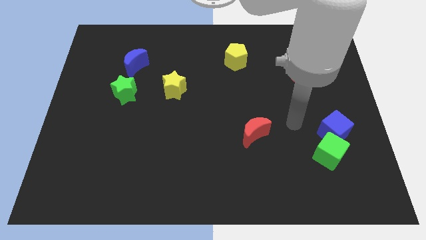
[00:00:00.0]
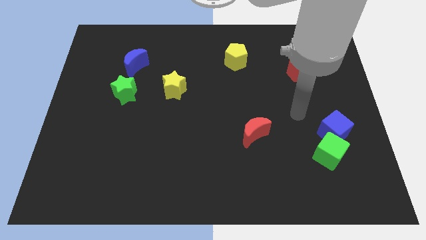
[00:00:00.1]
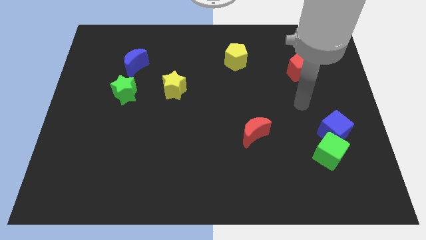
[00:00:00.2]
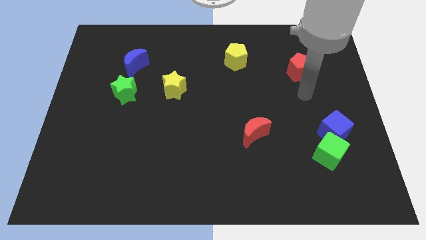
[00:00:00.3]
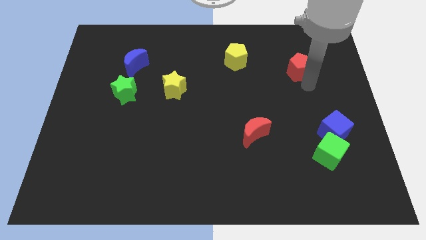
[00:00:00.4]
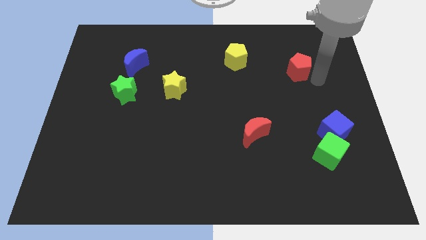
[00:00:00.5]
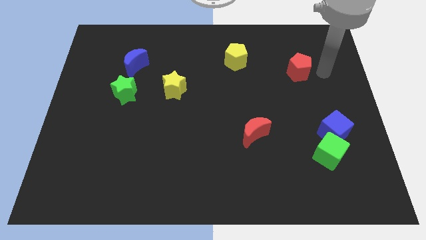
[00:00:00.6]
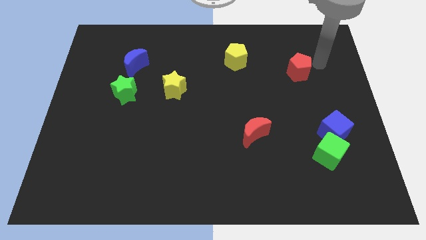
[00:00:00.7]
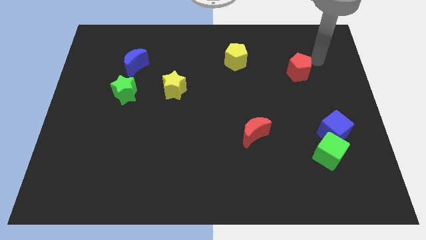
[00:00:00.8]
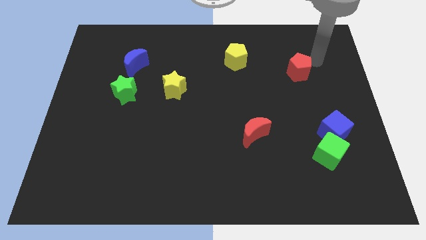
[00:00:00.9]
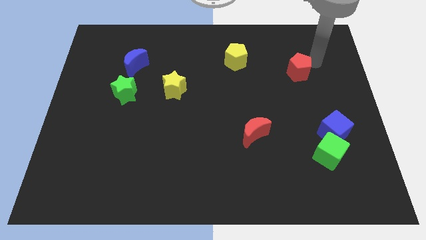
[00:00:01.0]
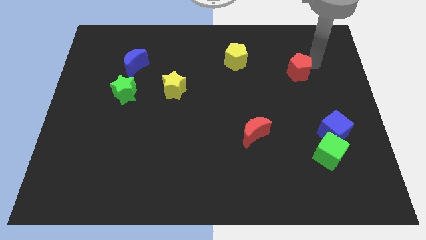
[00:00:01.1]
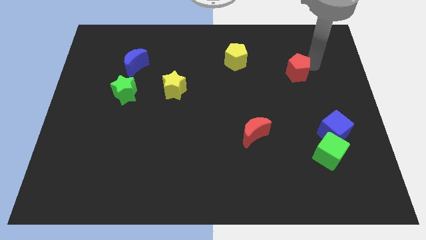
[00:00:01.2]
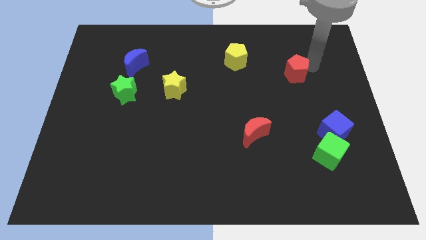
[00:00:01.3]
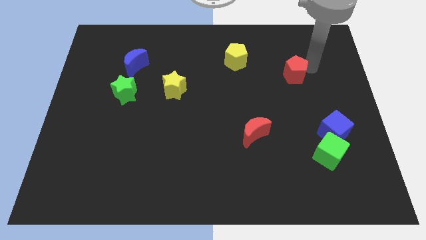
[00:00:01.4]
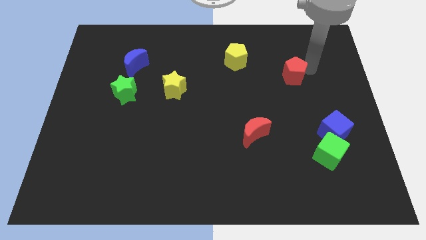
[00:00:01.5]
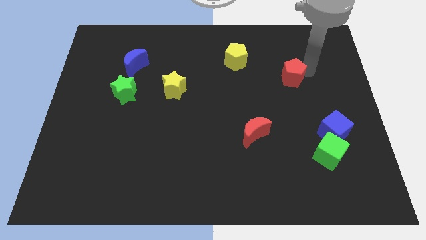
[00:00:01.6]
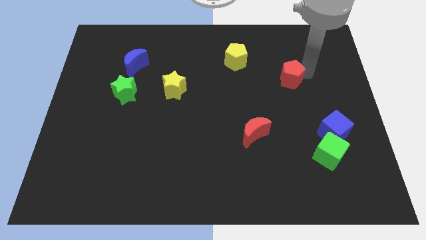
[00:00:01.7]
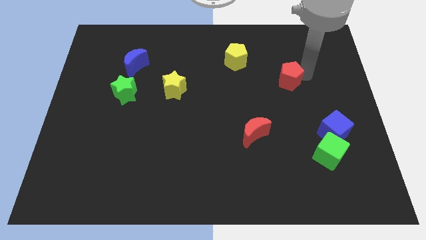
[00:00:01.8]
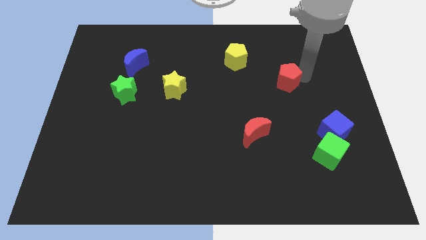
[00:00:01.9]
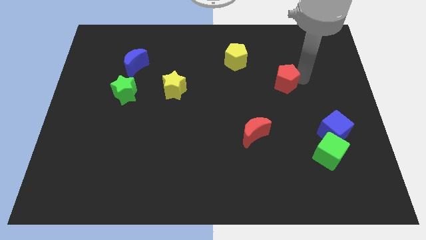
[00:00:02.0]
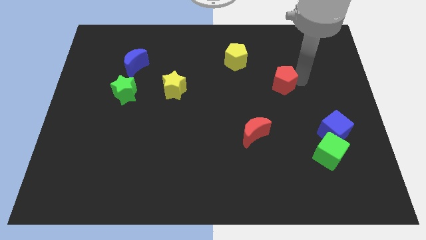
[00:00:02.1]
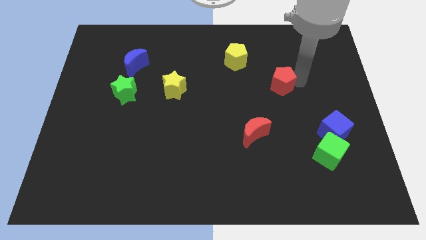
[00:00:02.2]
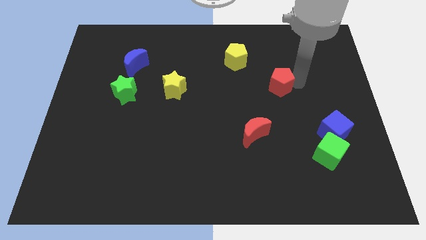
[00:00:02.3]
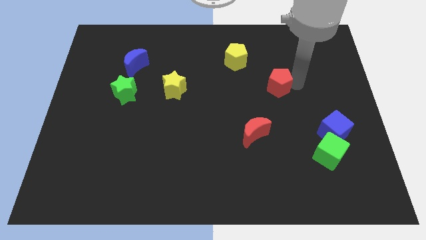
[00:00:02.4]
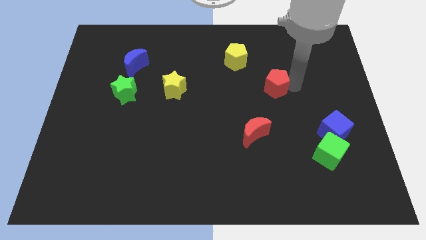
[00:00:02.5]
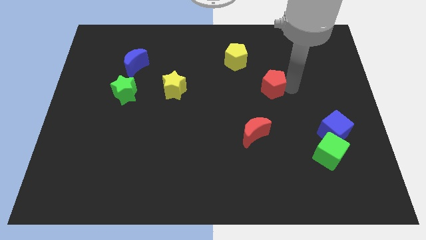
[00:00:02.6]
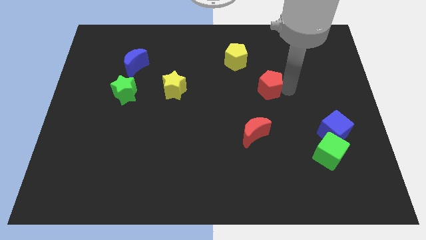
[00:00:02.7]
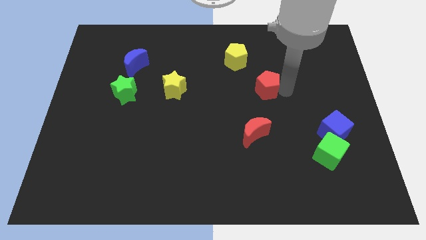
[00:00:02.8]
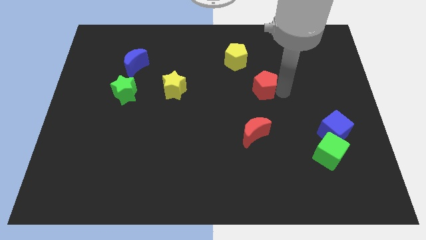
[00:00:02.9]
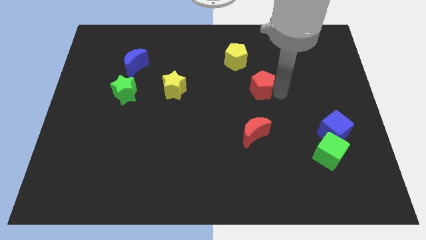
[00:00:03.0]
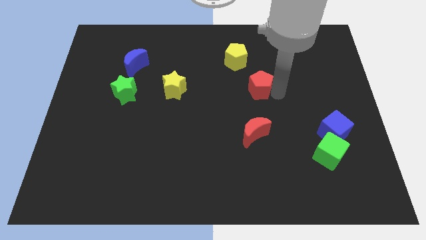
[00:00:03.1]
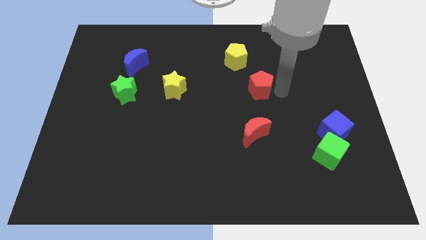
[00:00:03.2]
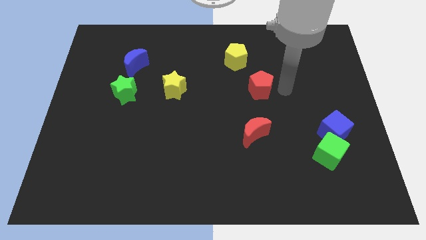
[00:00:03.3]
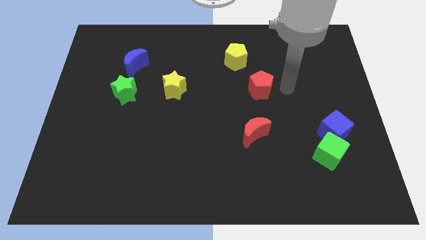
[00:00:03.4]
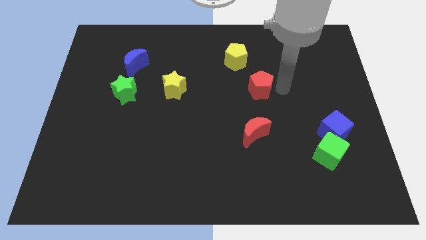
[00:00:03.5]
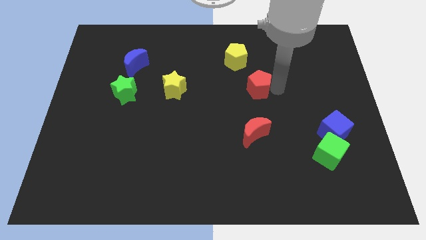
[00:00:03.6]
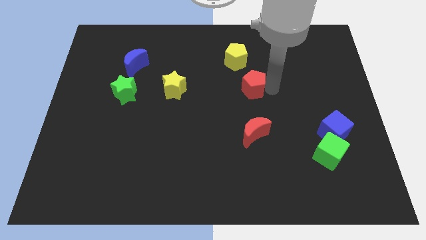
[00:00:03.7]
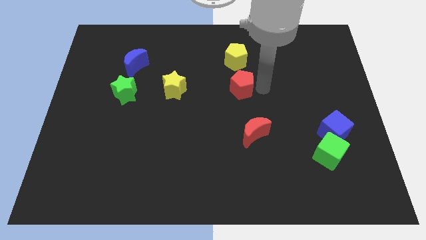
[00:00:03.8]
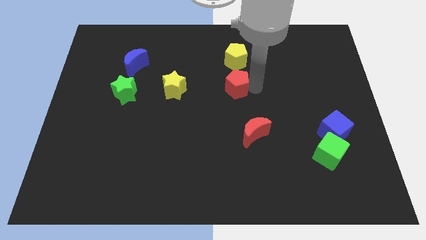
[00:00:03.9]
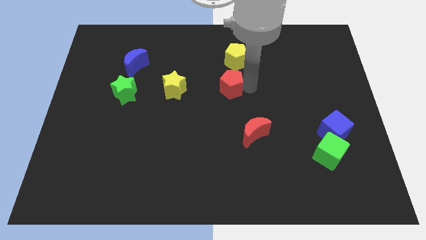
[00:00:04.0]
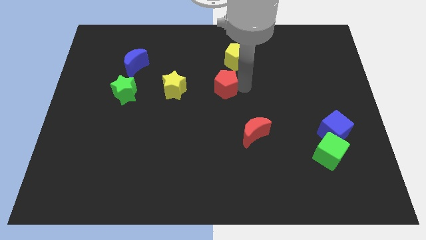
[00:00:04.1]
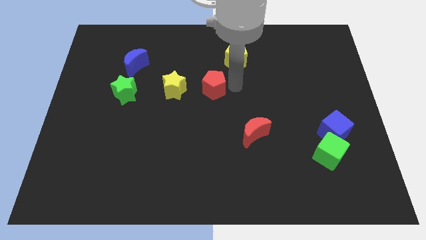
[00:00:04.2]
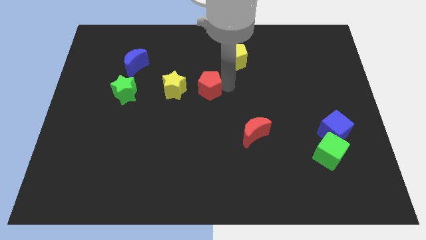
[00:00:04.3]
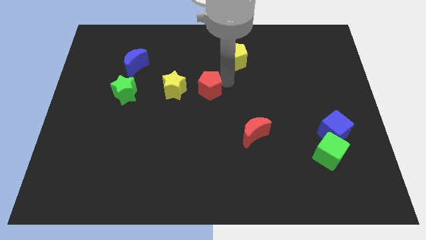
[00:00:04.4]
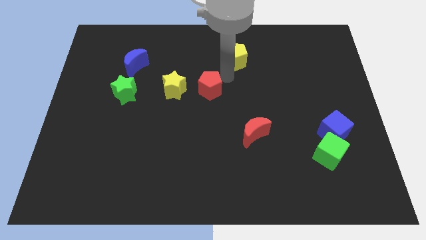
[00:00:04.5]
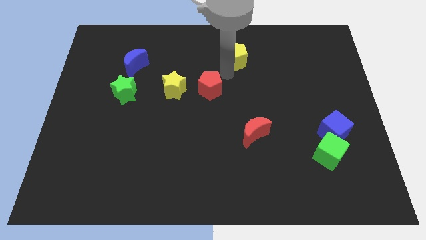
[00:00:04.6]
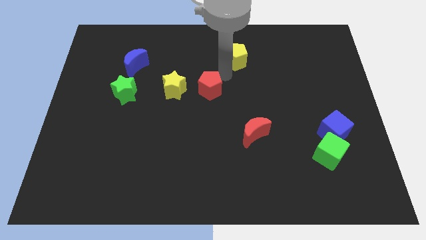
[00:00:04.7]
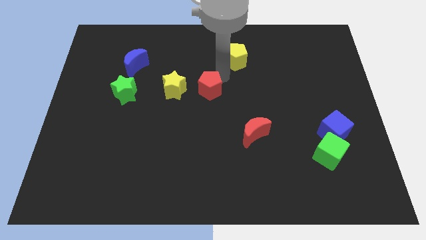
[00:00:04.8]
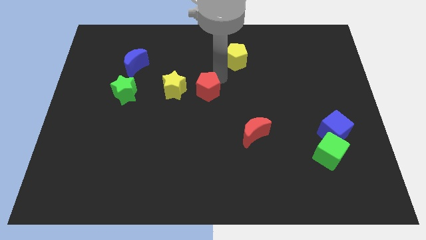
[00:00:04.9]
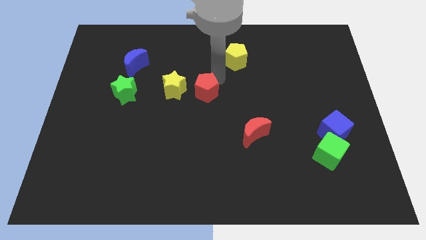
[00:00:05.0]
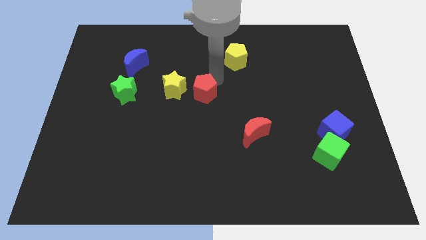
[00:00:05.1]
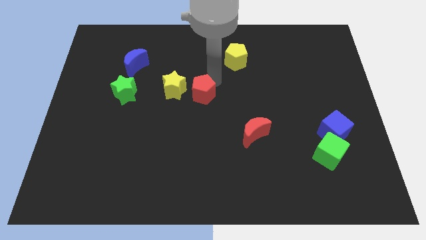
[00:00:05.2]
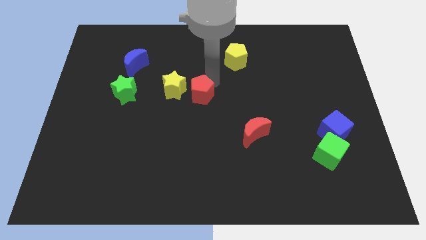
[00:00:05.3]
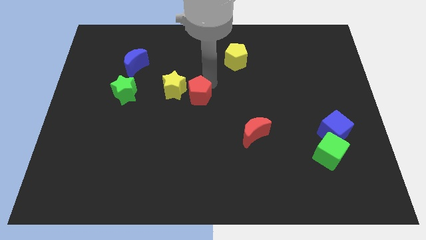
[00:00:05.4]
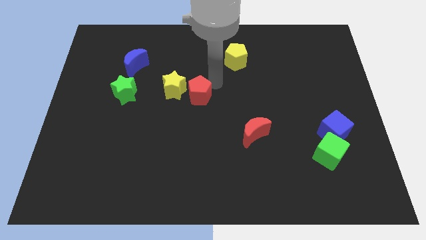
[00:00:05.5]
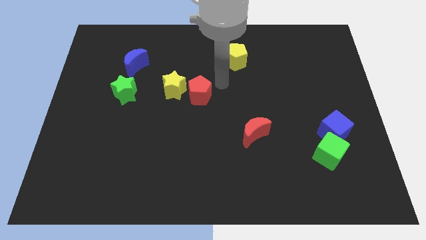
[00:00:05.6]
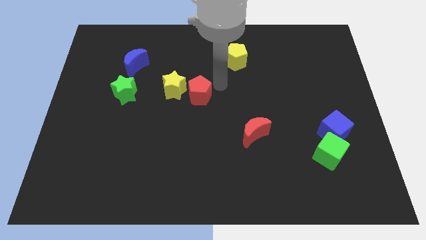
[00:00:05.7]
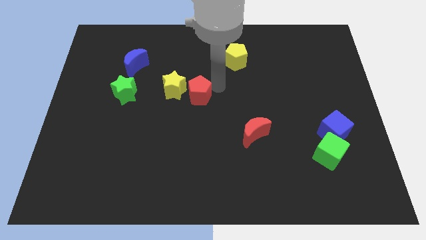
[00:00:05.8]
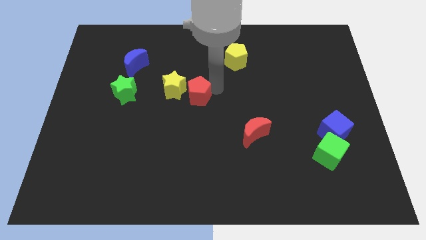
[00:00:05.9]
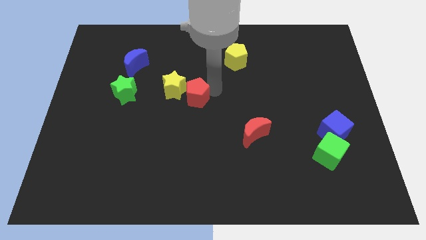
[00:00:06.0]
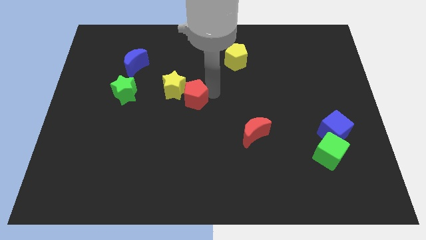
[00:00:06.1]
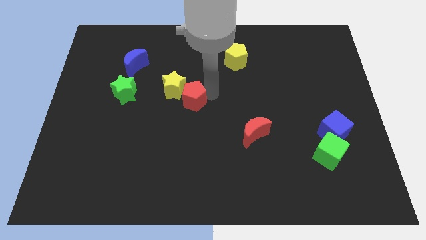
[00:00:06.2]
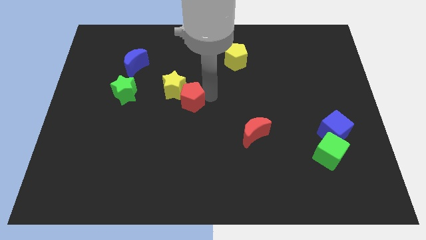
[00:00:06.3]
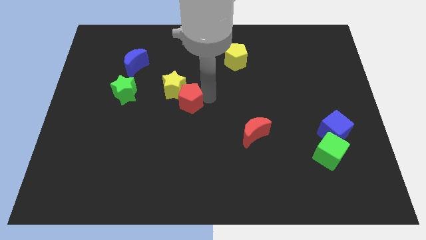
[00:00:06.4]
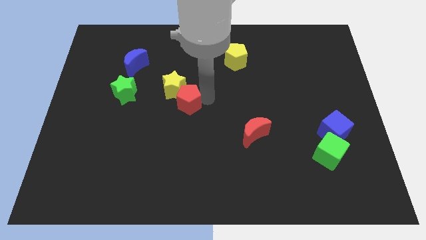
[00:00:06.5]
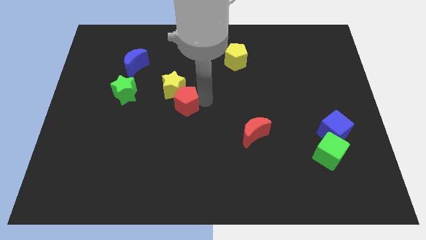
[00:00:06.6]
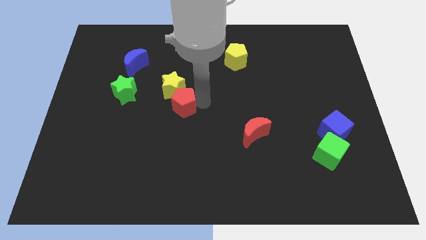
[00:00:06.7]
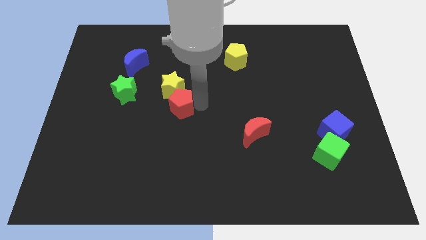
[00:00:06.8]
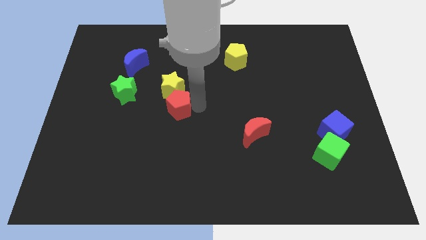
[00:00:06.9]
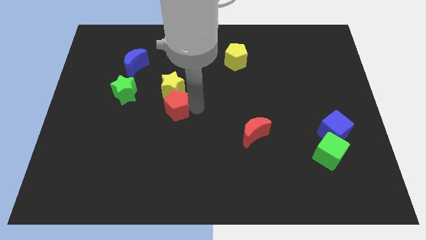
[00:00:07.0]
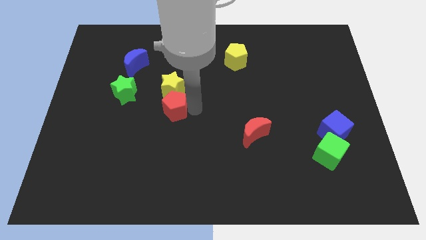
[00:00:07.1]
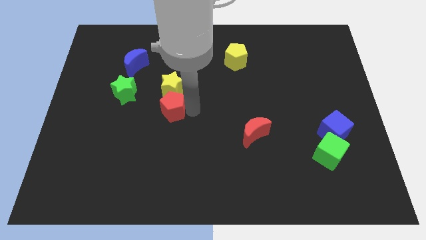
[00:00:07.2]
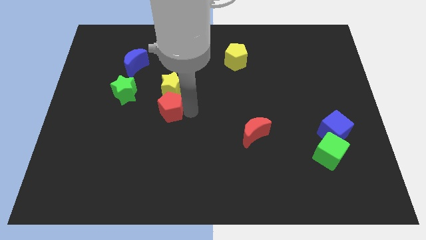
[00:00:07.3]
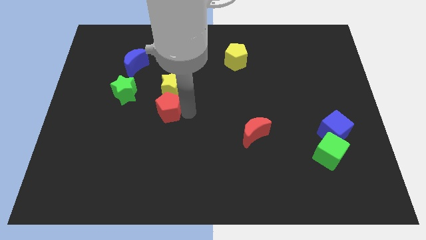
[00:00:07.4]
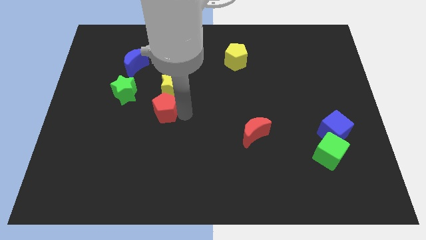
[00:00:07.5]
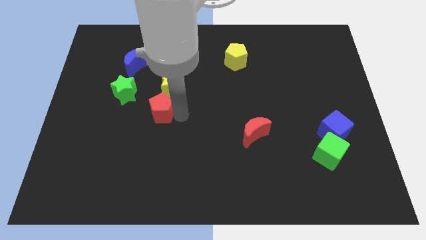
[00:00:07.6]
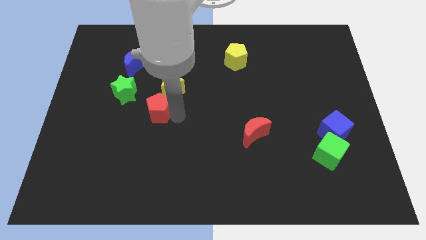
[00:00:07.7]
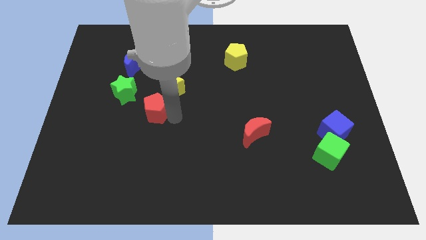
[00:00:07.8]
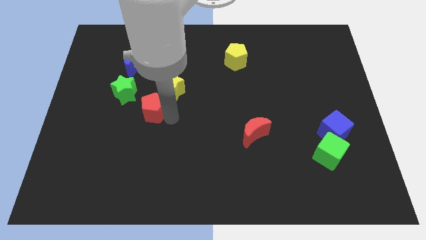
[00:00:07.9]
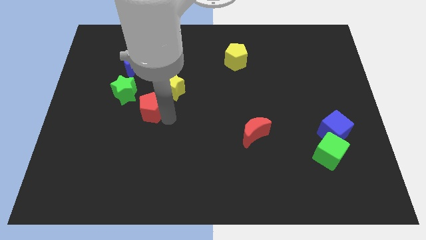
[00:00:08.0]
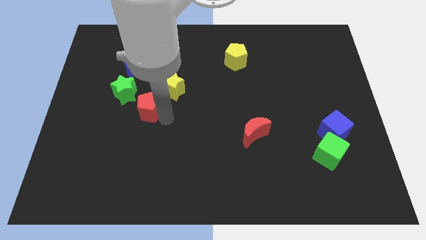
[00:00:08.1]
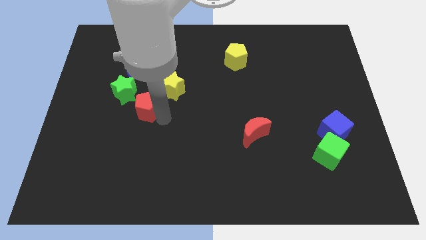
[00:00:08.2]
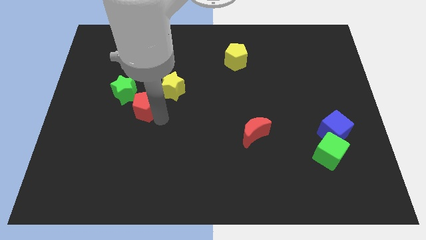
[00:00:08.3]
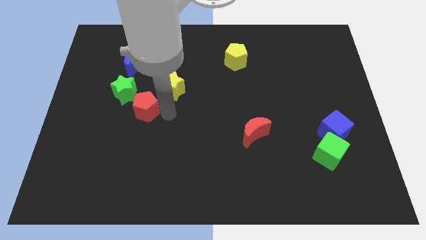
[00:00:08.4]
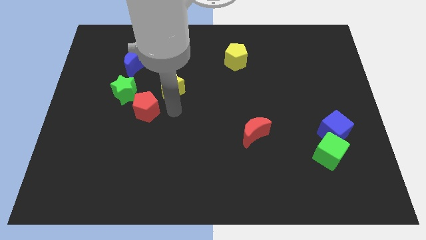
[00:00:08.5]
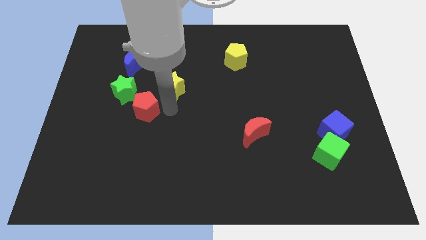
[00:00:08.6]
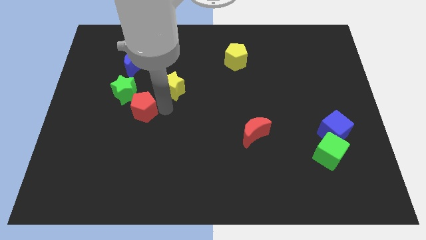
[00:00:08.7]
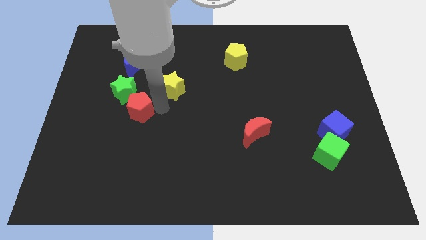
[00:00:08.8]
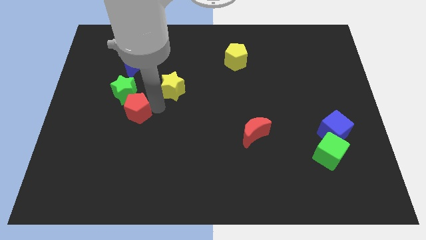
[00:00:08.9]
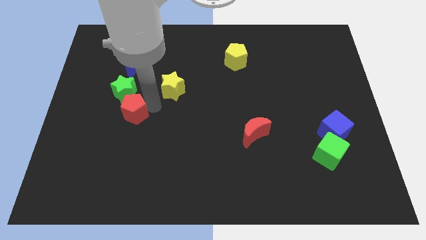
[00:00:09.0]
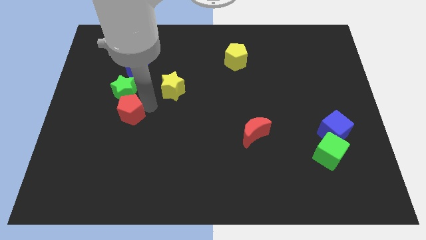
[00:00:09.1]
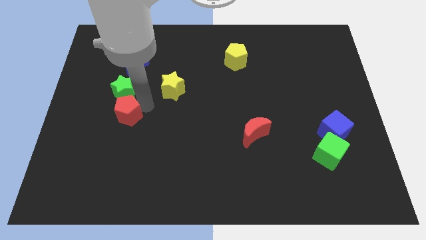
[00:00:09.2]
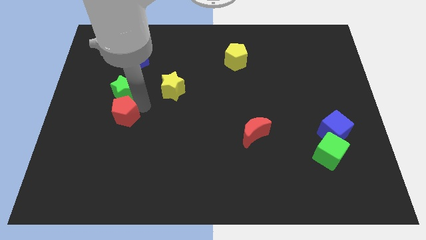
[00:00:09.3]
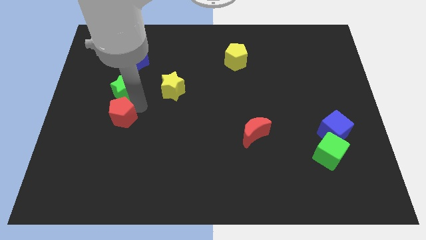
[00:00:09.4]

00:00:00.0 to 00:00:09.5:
move the red pentagon to the bottom left side of the green star
